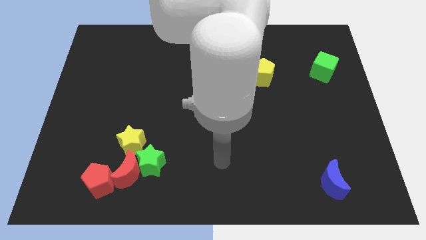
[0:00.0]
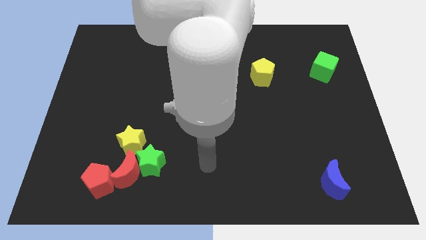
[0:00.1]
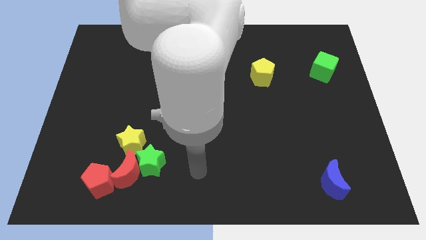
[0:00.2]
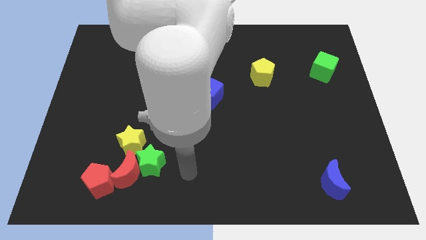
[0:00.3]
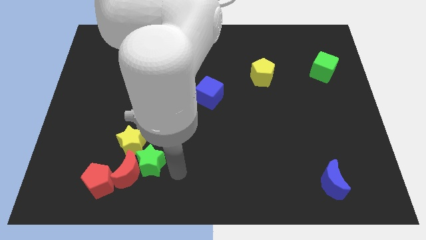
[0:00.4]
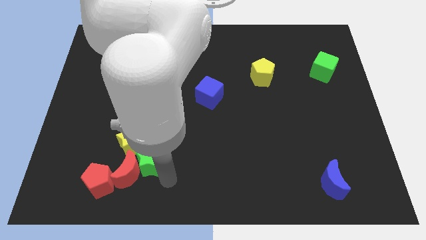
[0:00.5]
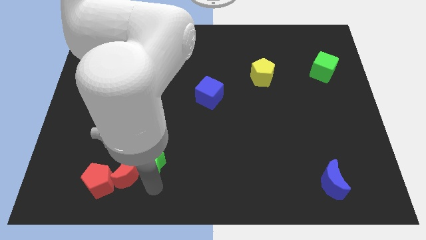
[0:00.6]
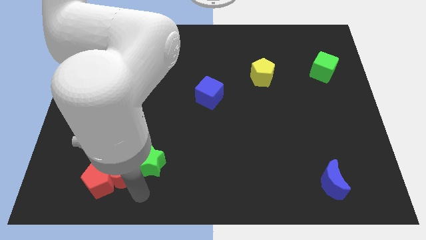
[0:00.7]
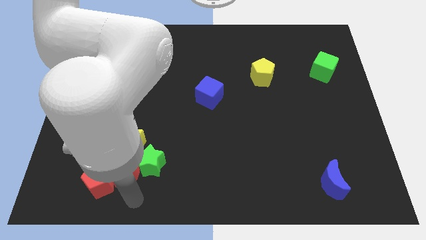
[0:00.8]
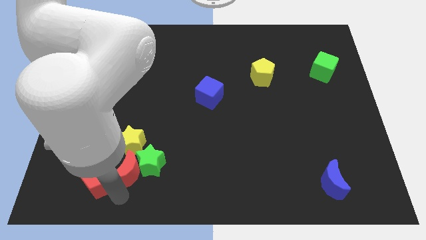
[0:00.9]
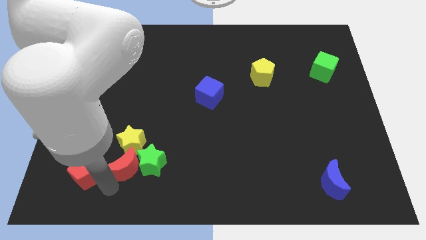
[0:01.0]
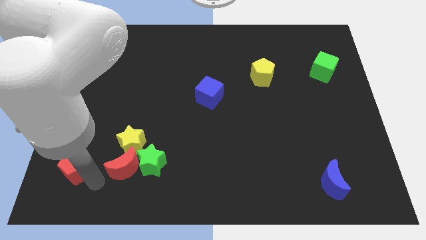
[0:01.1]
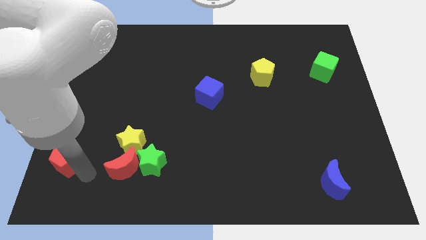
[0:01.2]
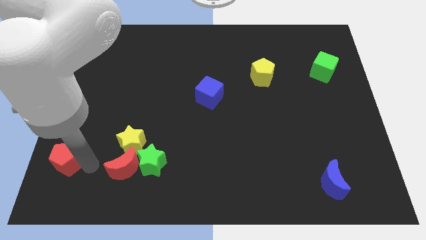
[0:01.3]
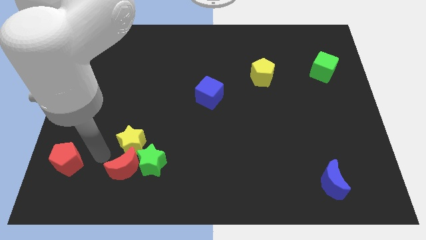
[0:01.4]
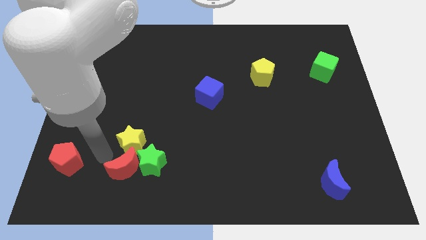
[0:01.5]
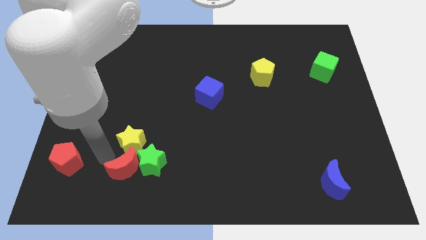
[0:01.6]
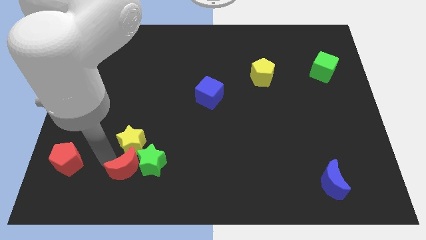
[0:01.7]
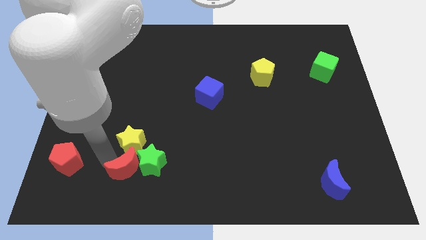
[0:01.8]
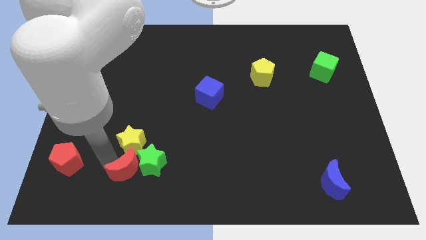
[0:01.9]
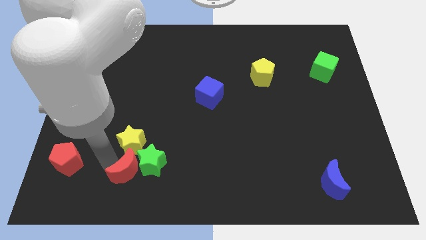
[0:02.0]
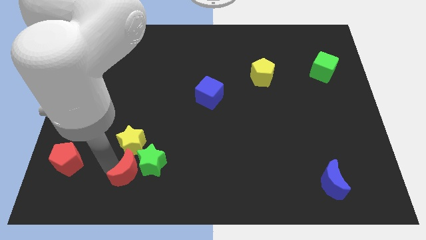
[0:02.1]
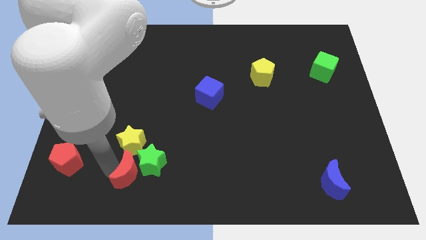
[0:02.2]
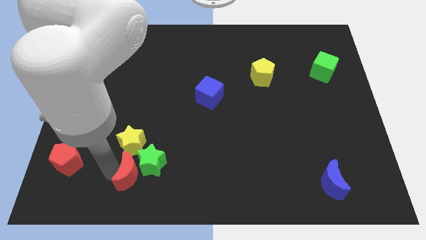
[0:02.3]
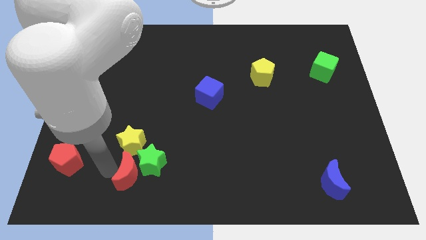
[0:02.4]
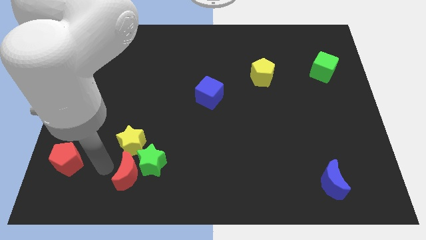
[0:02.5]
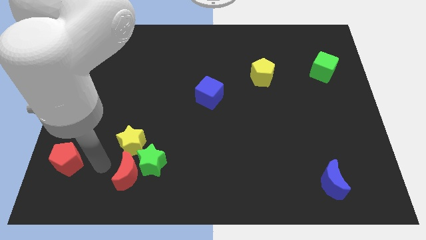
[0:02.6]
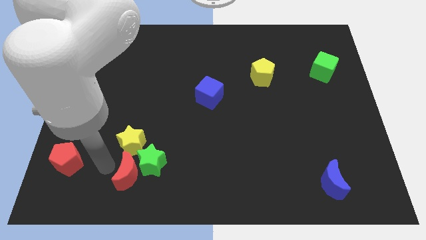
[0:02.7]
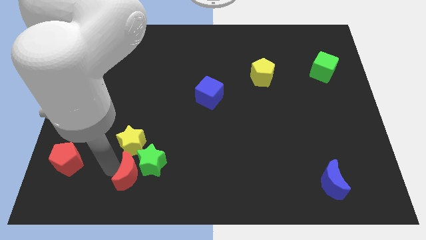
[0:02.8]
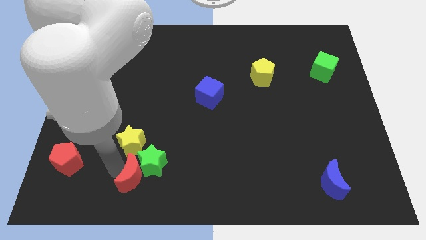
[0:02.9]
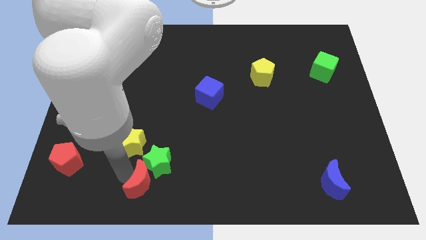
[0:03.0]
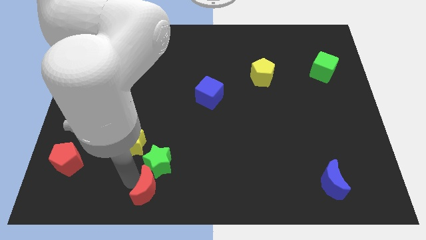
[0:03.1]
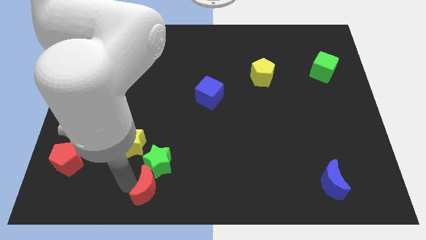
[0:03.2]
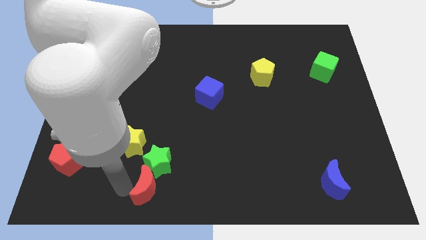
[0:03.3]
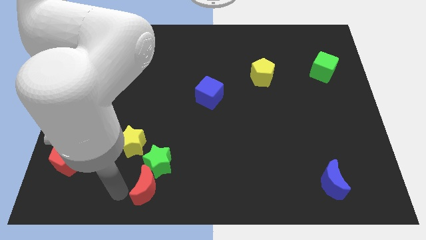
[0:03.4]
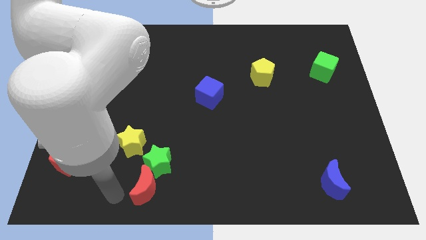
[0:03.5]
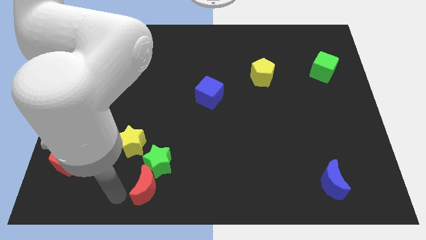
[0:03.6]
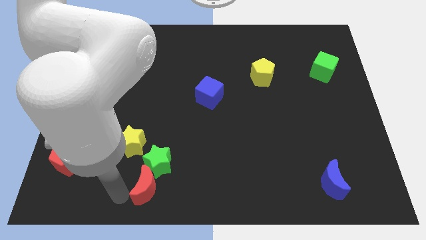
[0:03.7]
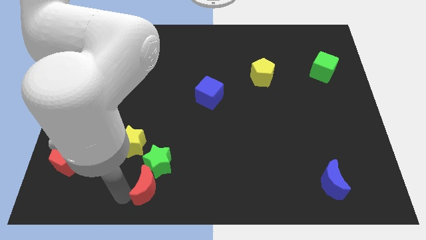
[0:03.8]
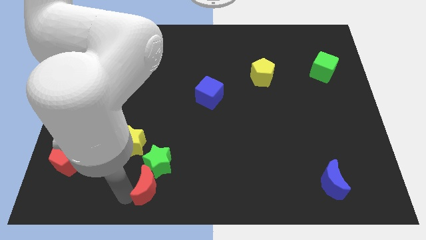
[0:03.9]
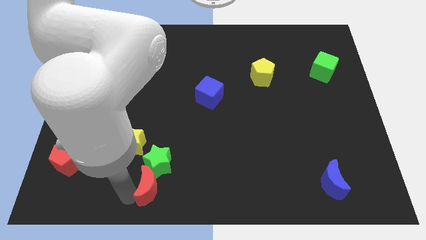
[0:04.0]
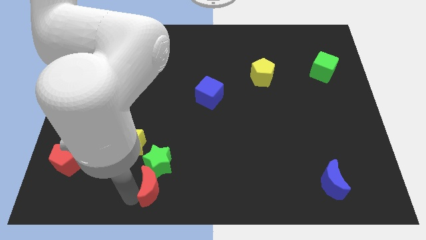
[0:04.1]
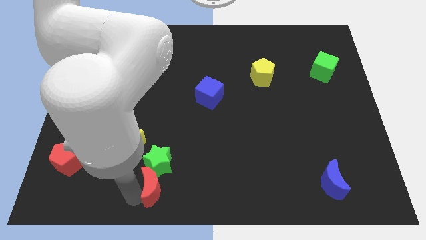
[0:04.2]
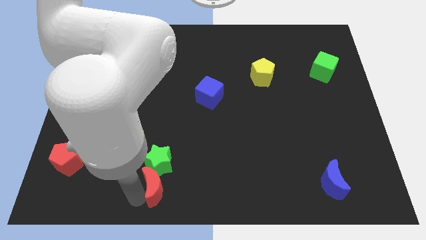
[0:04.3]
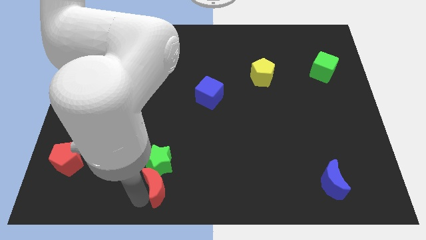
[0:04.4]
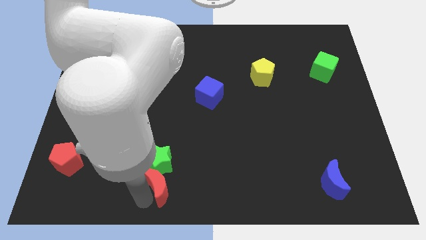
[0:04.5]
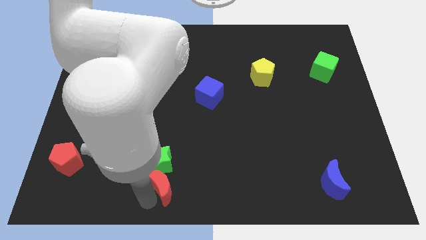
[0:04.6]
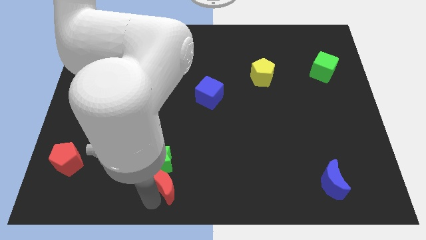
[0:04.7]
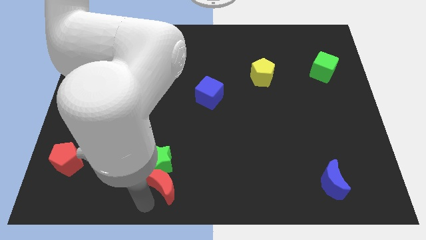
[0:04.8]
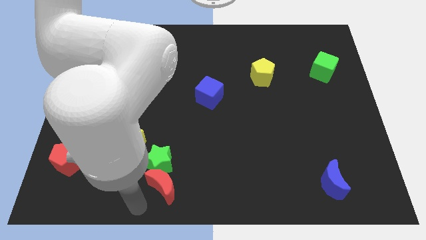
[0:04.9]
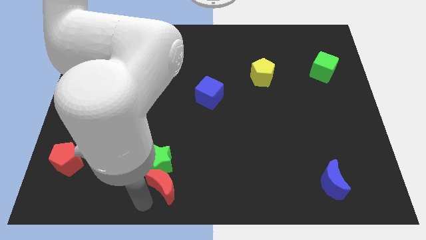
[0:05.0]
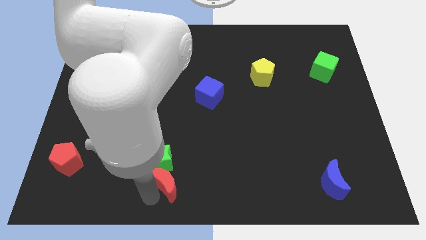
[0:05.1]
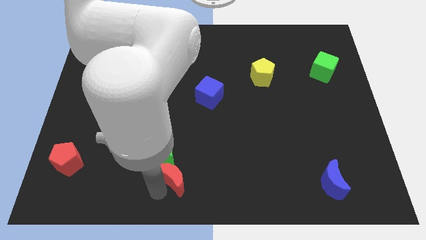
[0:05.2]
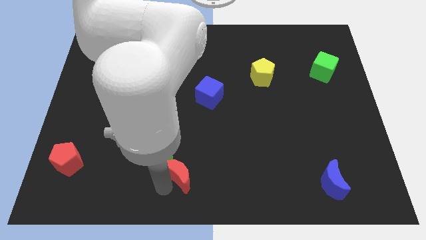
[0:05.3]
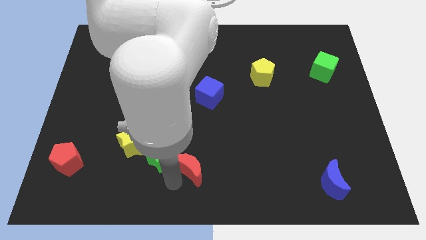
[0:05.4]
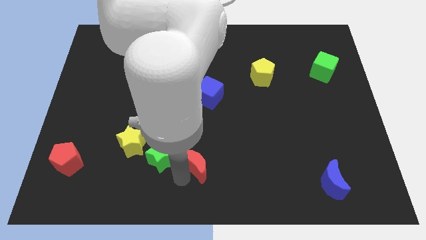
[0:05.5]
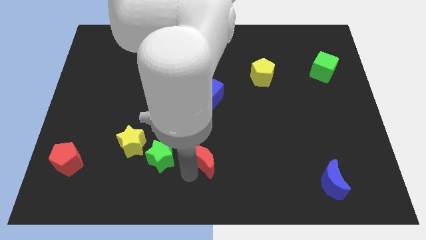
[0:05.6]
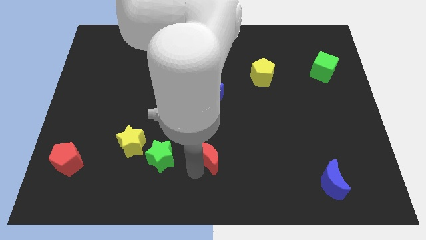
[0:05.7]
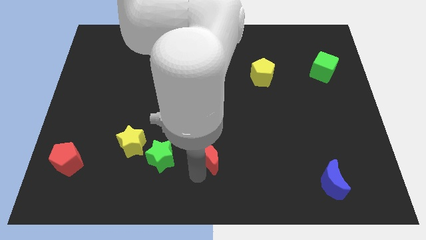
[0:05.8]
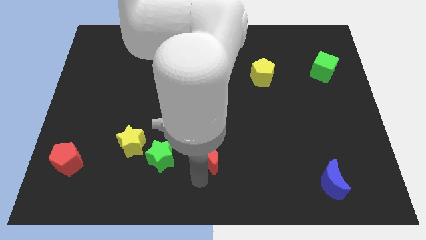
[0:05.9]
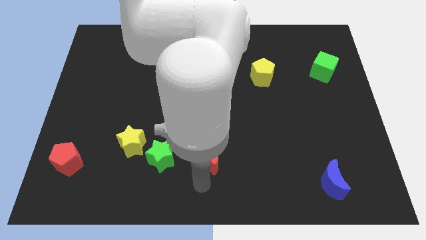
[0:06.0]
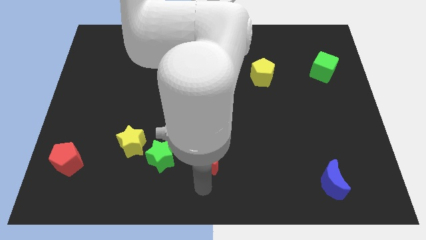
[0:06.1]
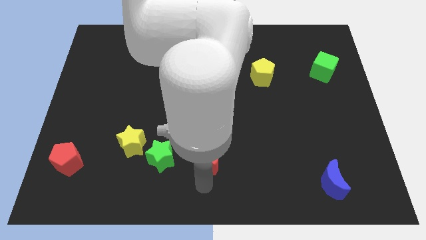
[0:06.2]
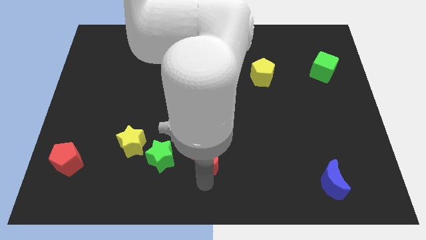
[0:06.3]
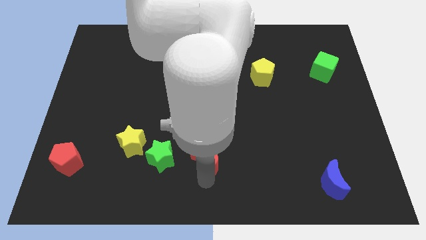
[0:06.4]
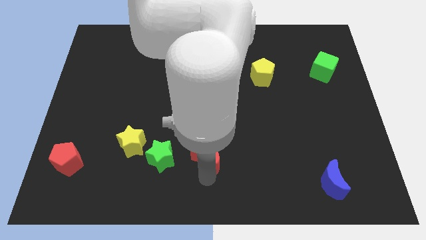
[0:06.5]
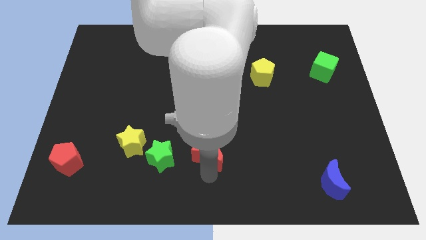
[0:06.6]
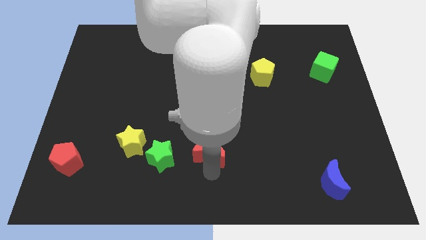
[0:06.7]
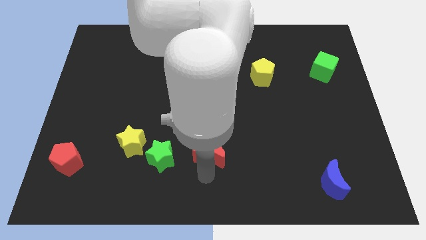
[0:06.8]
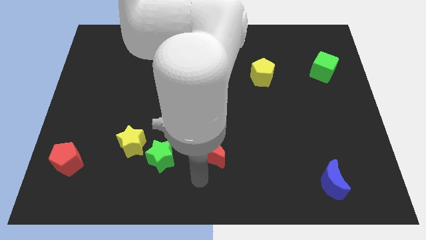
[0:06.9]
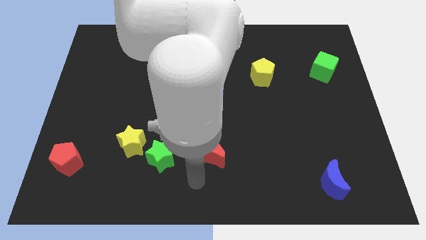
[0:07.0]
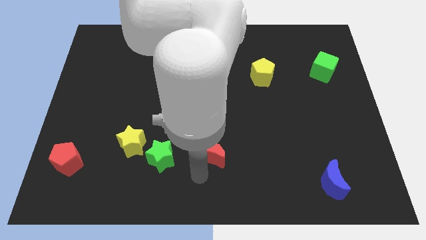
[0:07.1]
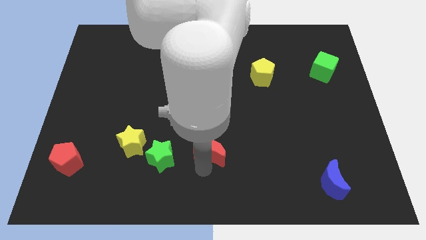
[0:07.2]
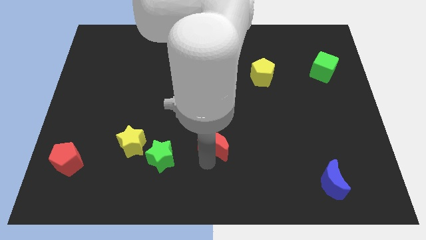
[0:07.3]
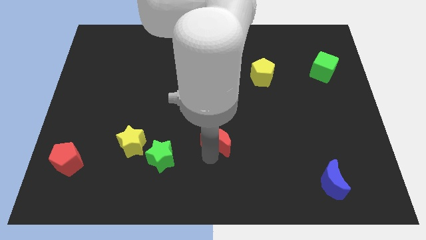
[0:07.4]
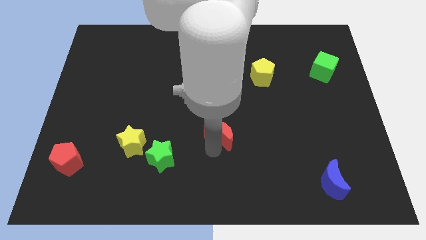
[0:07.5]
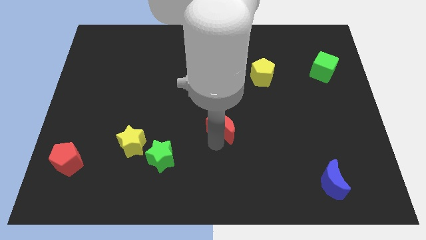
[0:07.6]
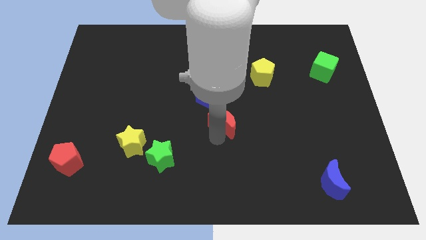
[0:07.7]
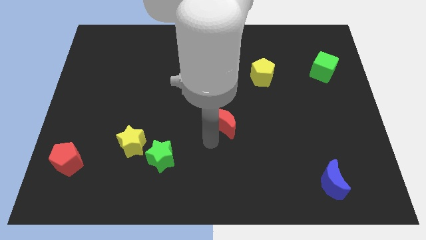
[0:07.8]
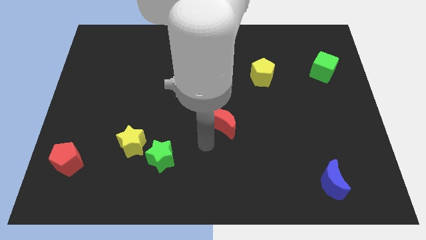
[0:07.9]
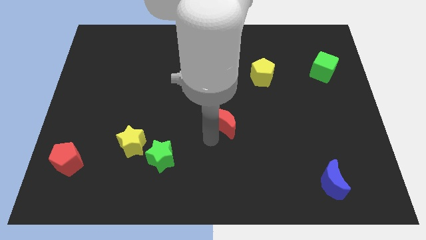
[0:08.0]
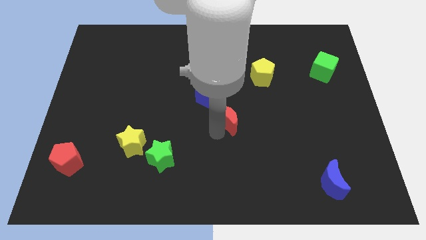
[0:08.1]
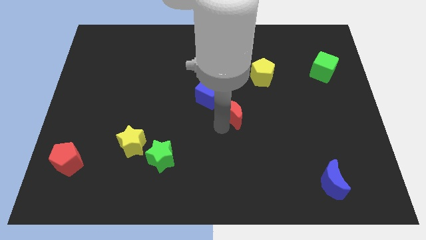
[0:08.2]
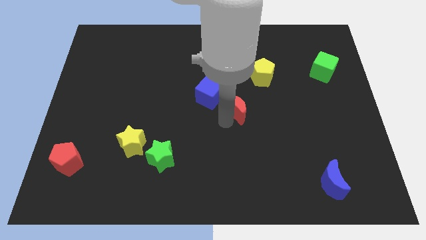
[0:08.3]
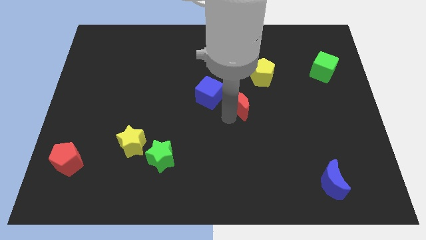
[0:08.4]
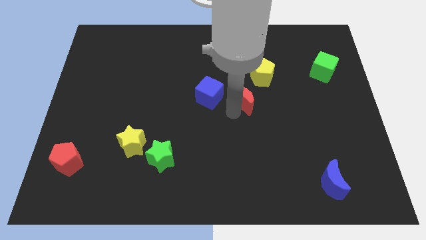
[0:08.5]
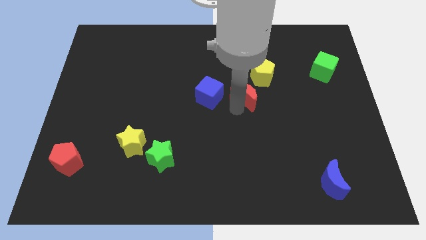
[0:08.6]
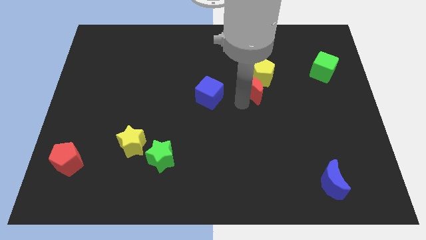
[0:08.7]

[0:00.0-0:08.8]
put the red moon next to the yellow pentagon
